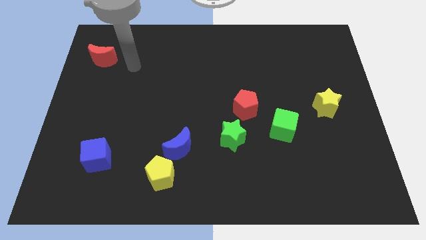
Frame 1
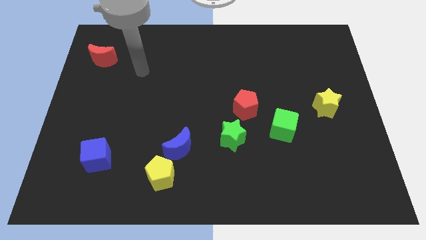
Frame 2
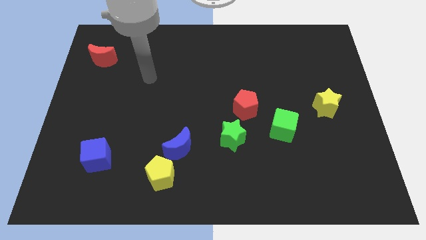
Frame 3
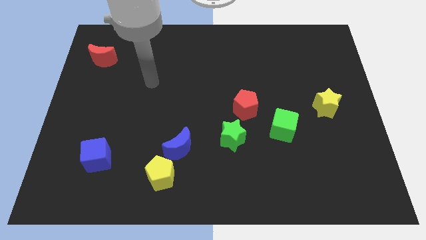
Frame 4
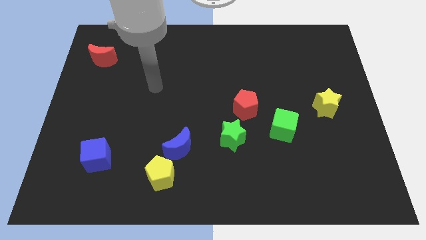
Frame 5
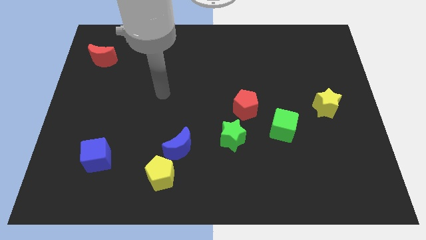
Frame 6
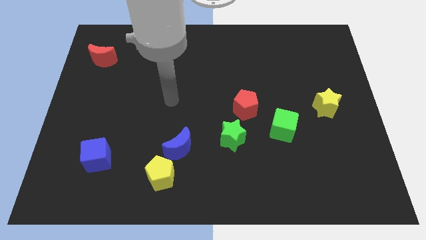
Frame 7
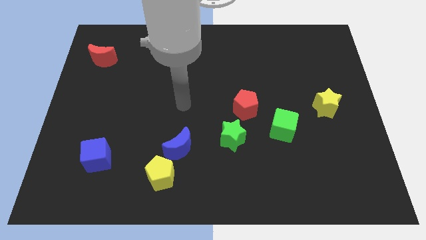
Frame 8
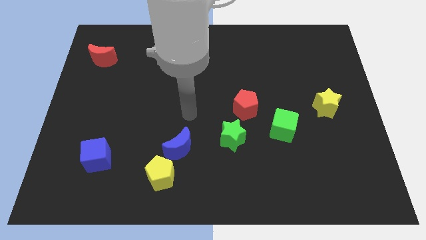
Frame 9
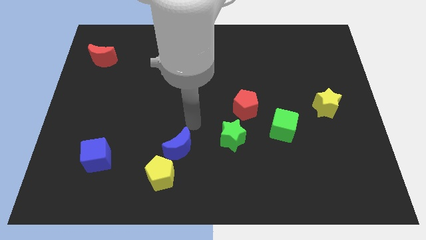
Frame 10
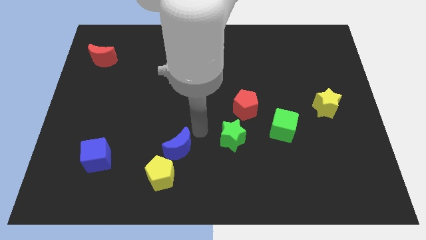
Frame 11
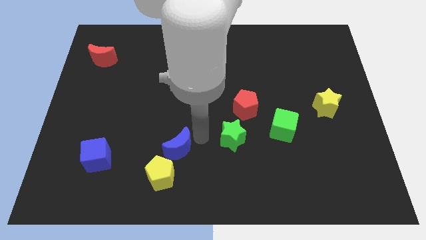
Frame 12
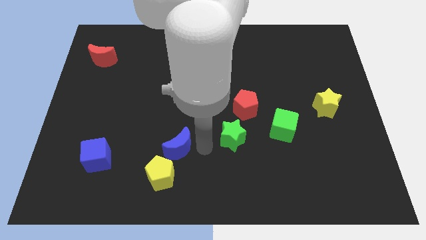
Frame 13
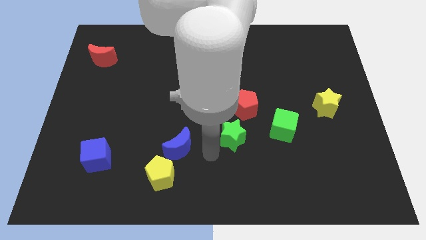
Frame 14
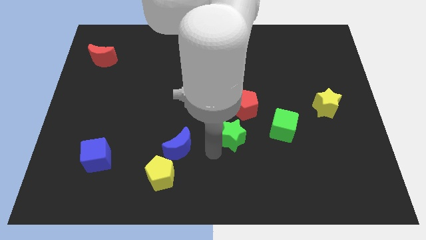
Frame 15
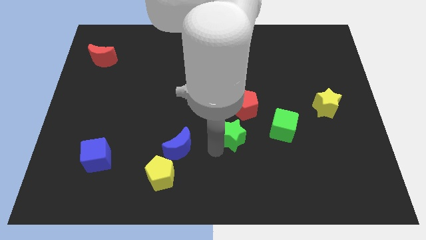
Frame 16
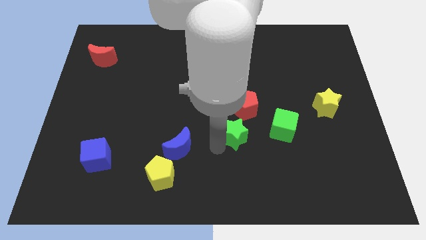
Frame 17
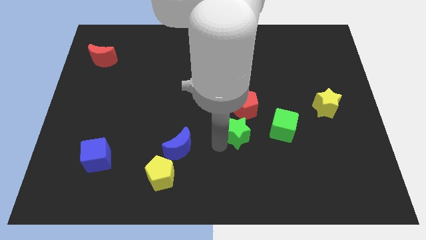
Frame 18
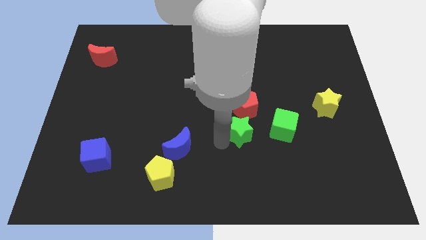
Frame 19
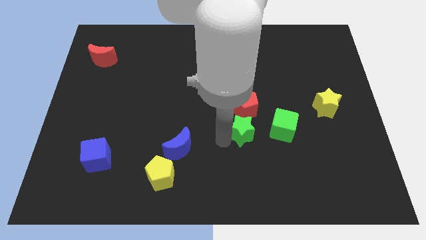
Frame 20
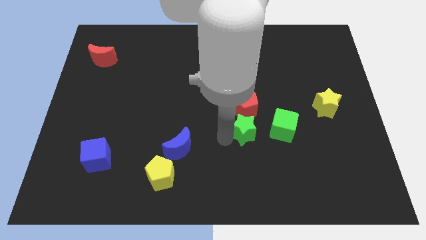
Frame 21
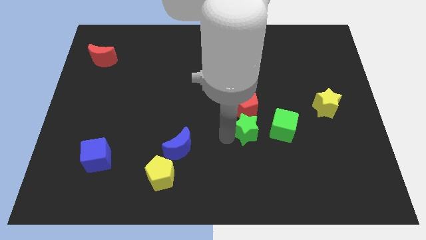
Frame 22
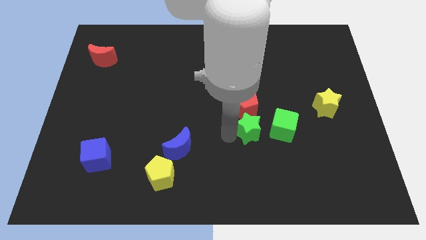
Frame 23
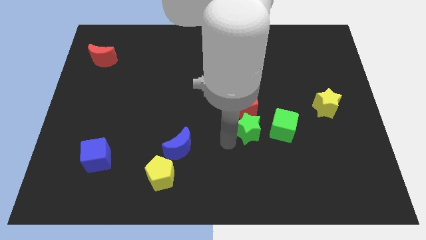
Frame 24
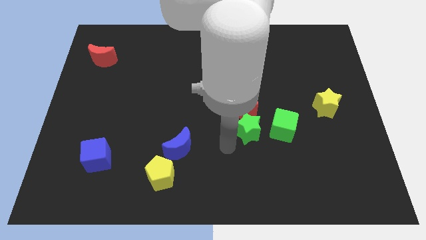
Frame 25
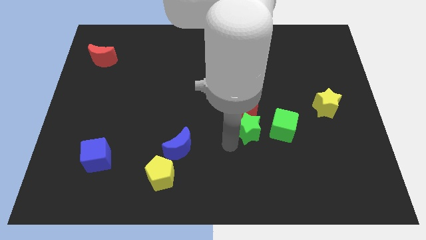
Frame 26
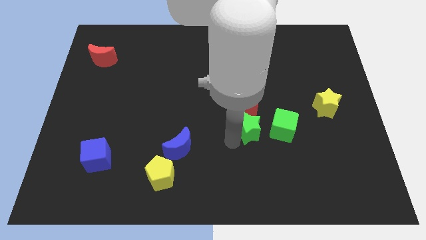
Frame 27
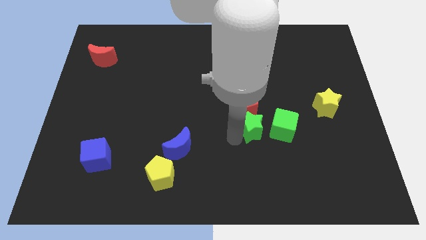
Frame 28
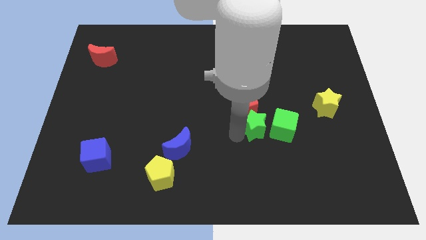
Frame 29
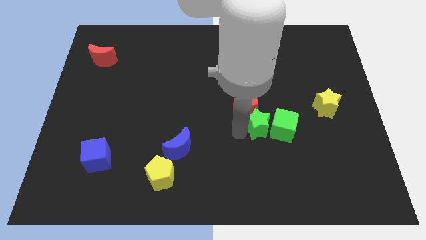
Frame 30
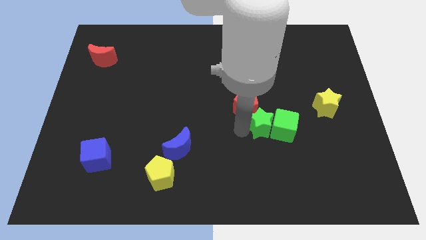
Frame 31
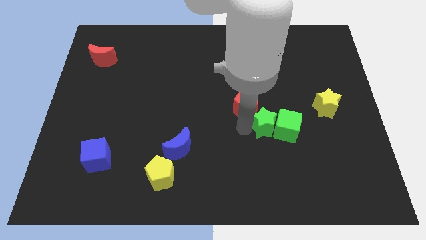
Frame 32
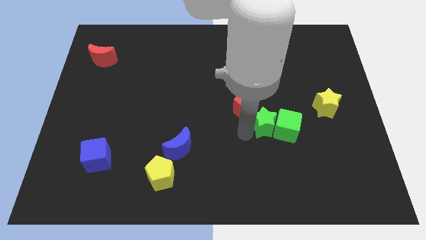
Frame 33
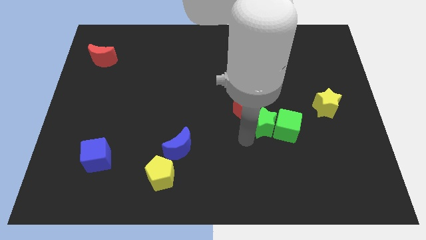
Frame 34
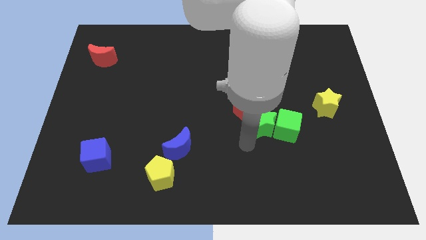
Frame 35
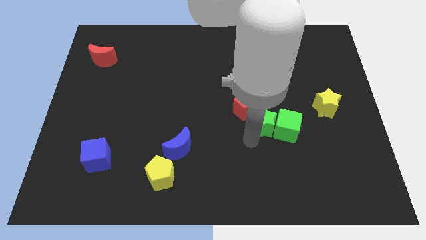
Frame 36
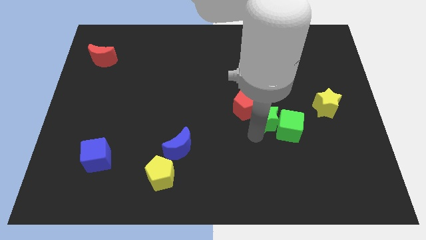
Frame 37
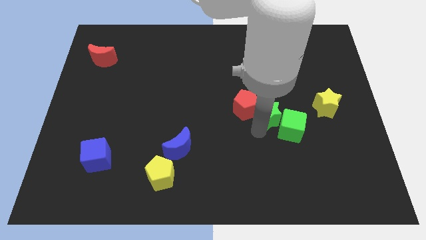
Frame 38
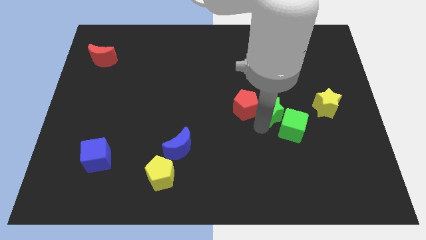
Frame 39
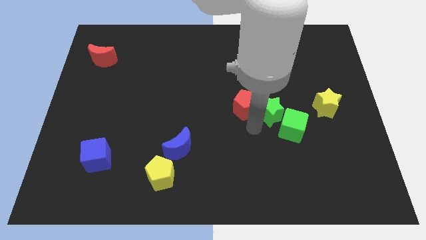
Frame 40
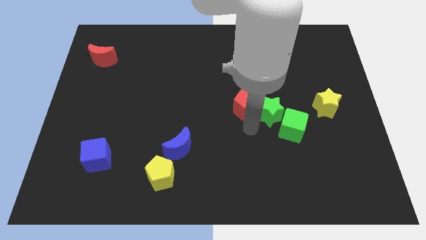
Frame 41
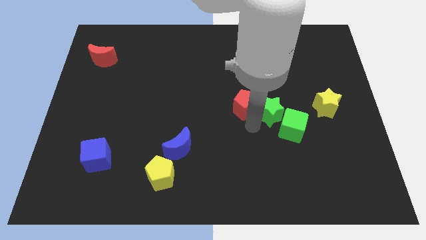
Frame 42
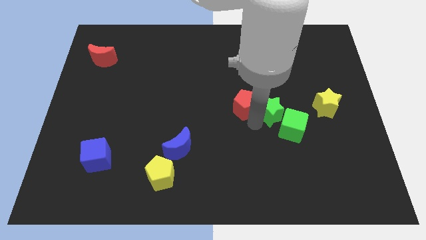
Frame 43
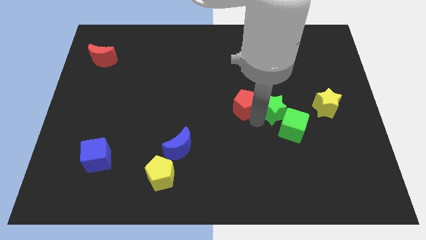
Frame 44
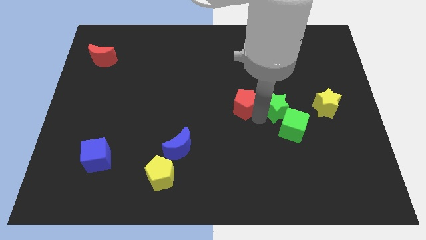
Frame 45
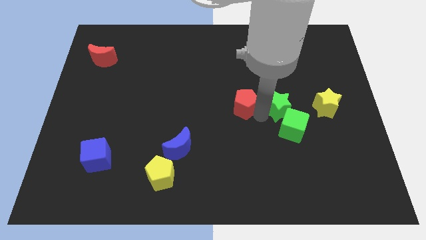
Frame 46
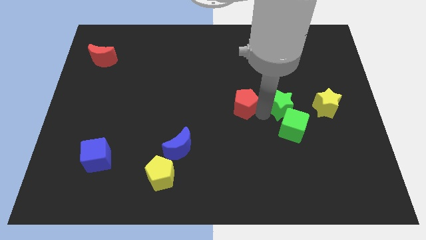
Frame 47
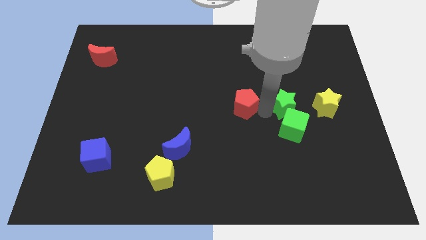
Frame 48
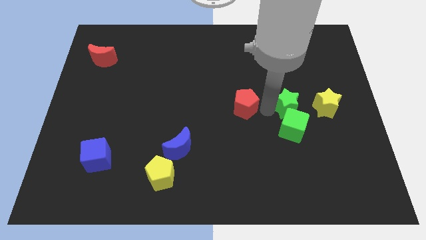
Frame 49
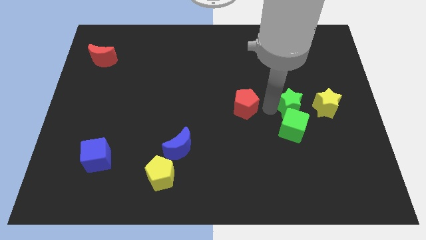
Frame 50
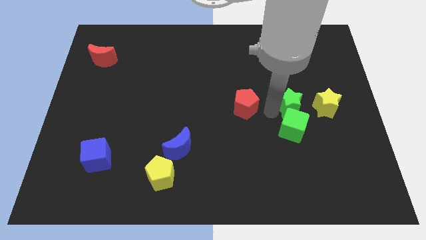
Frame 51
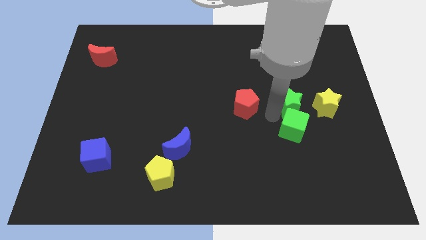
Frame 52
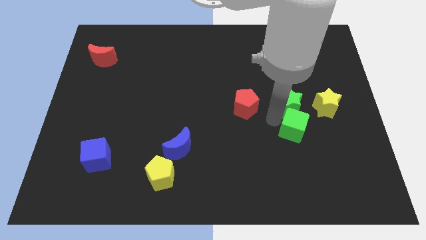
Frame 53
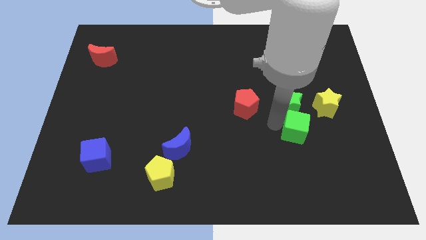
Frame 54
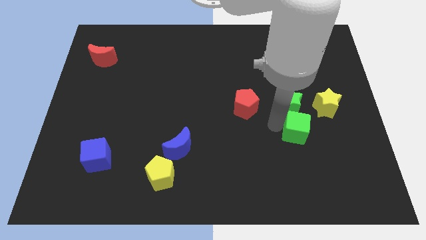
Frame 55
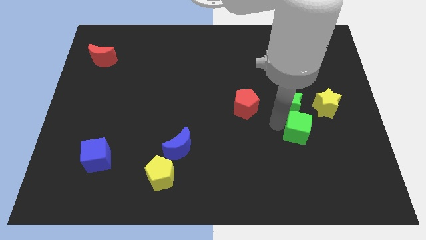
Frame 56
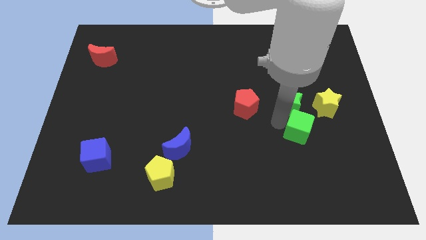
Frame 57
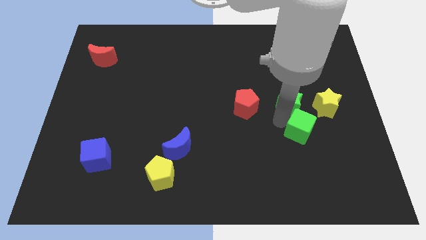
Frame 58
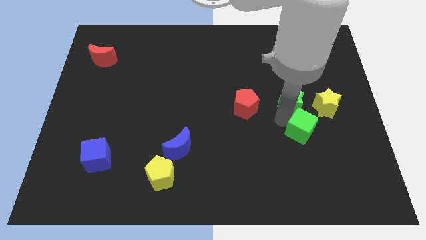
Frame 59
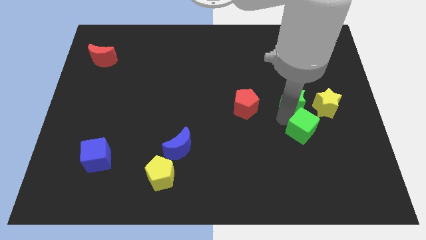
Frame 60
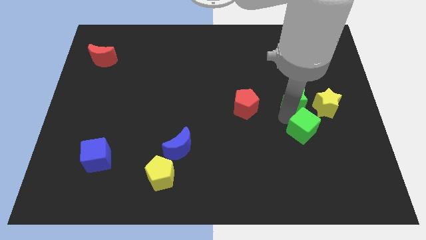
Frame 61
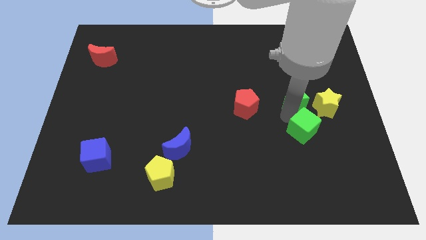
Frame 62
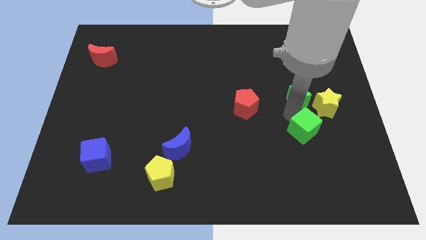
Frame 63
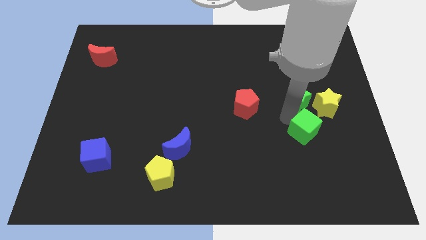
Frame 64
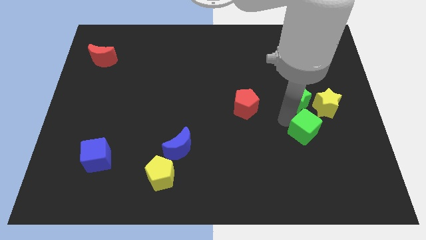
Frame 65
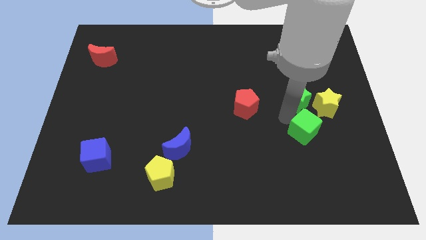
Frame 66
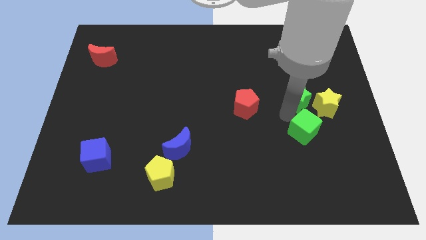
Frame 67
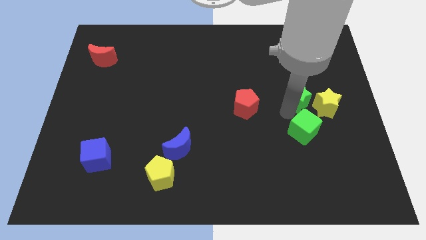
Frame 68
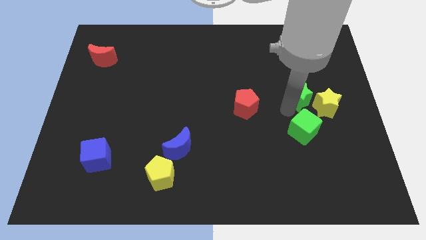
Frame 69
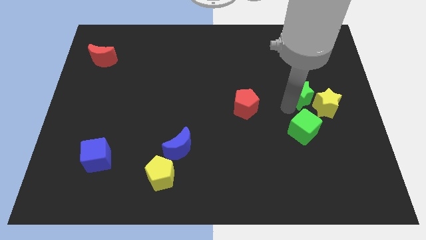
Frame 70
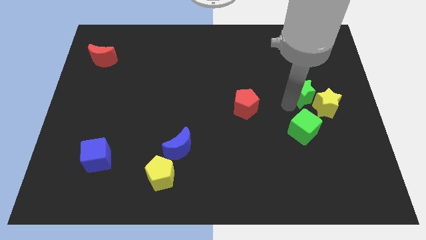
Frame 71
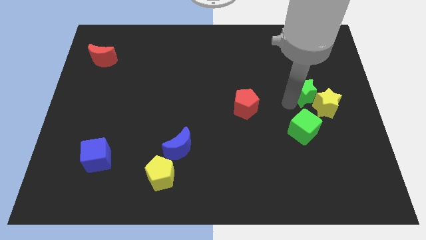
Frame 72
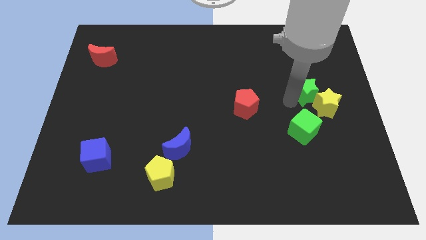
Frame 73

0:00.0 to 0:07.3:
push the green star above the yellow star
